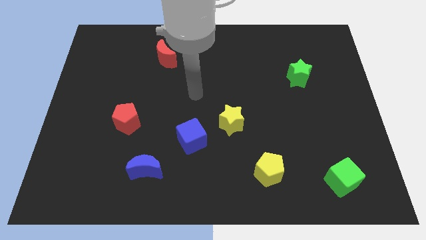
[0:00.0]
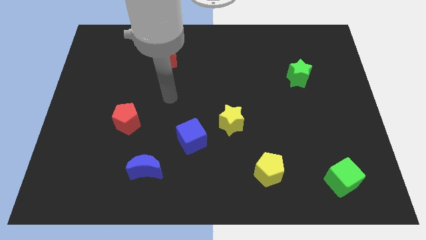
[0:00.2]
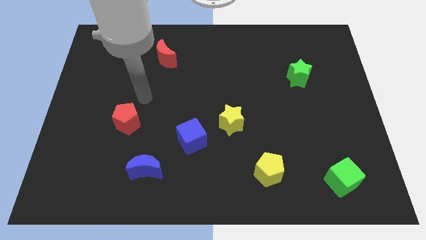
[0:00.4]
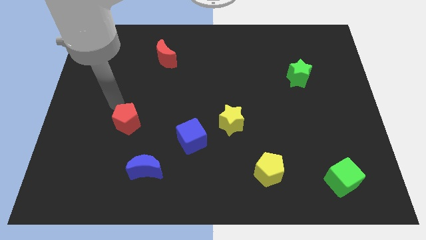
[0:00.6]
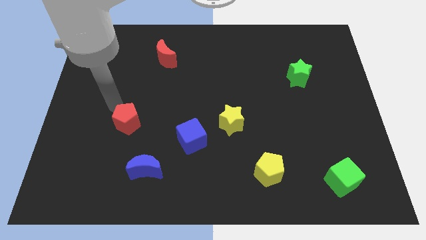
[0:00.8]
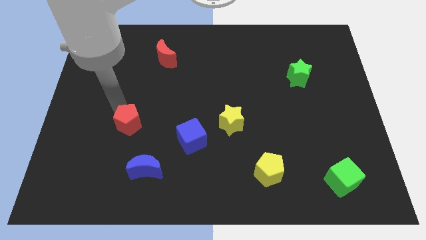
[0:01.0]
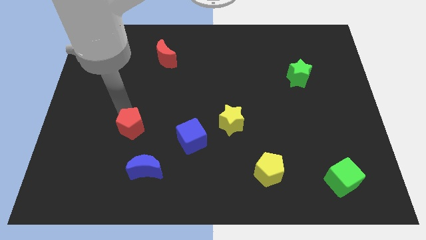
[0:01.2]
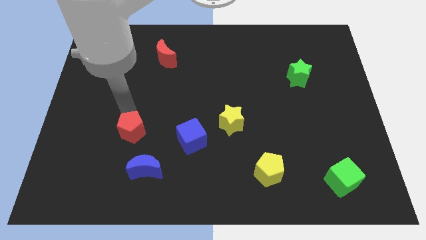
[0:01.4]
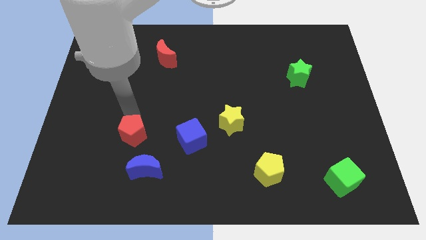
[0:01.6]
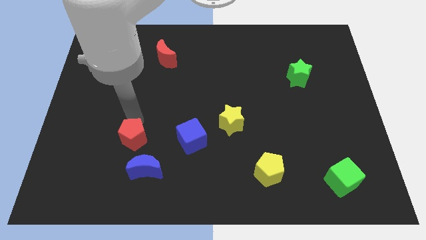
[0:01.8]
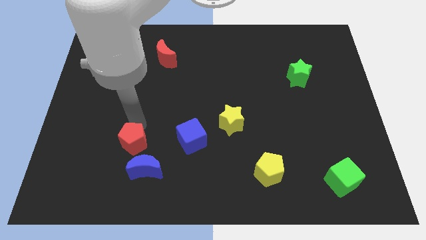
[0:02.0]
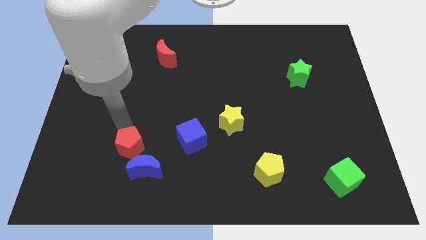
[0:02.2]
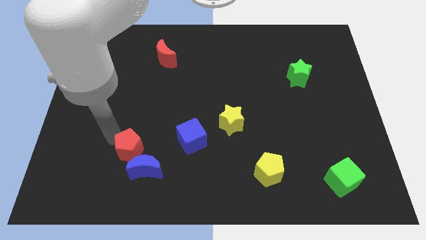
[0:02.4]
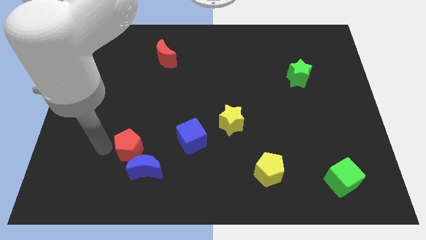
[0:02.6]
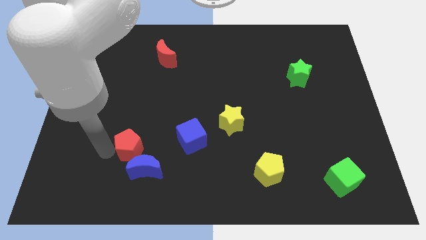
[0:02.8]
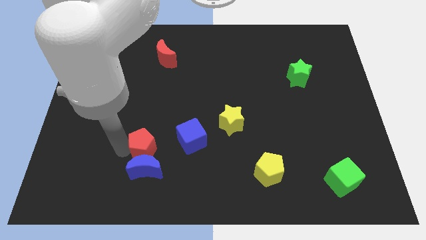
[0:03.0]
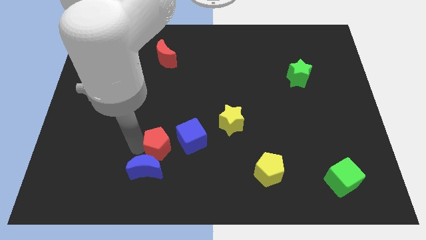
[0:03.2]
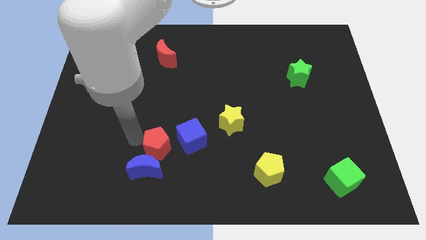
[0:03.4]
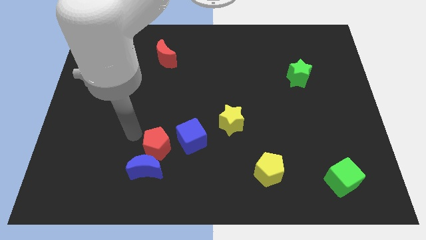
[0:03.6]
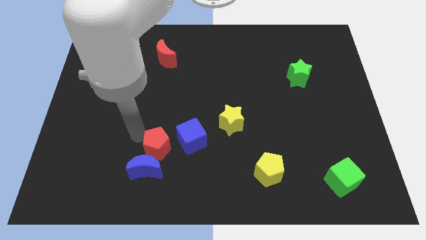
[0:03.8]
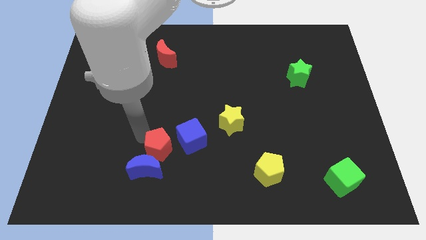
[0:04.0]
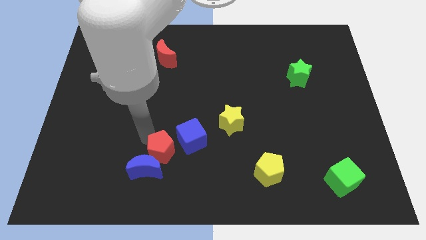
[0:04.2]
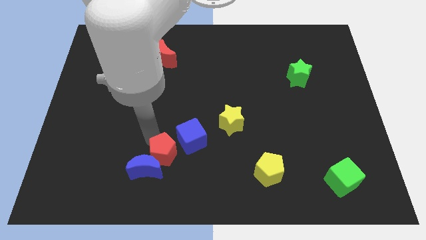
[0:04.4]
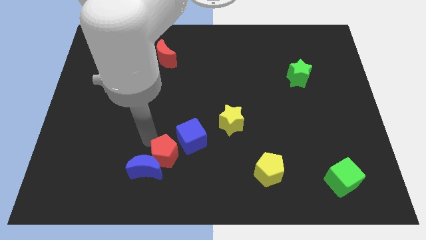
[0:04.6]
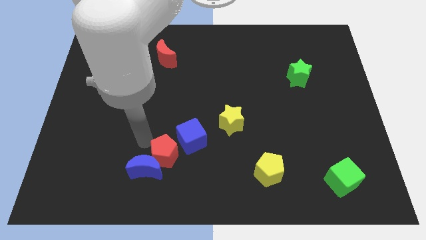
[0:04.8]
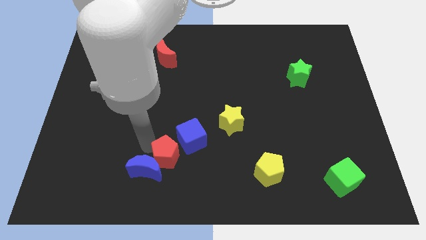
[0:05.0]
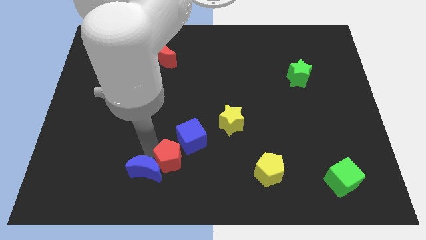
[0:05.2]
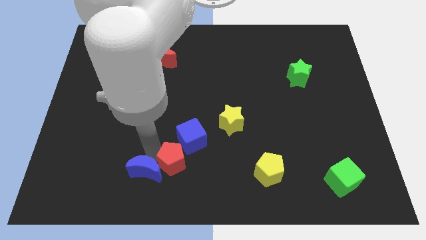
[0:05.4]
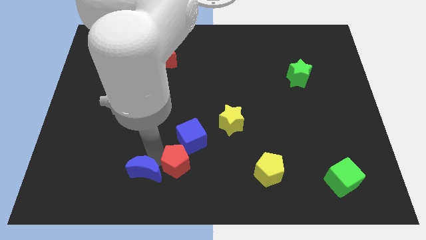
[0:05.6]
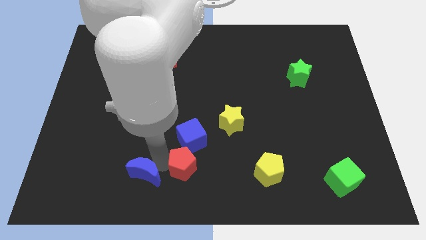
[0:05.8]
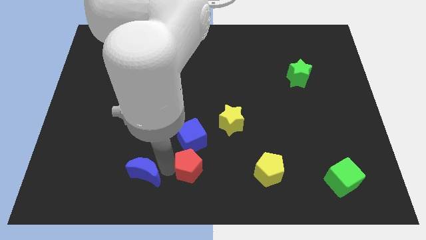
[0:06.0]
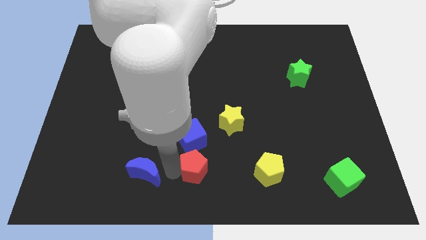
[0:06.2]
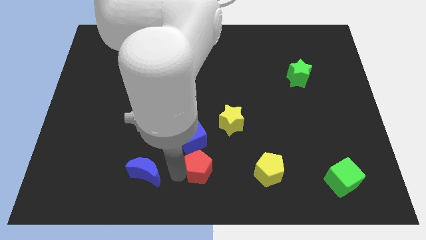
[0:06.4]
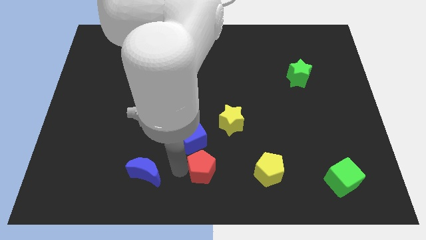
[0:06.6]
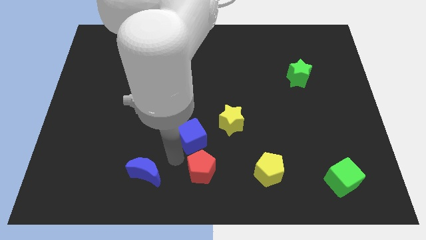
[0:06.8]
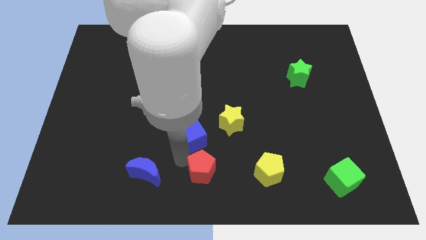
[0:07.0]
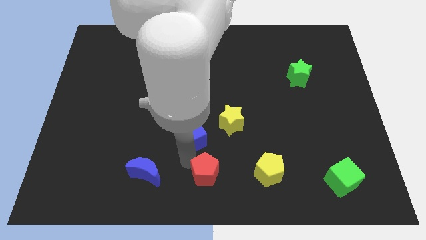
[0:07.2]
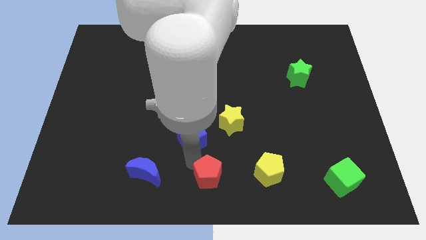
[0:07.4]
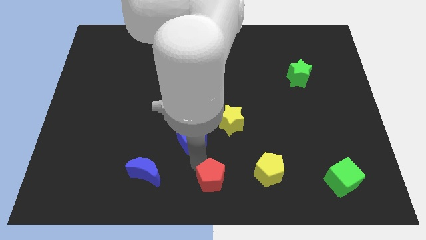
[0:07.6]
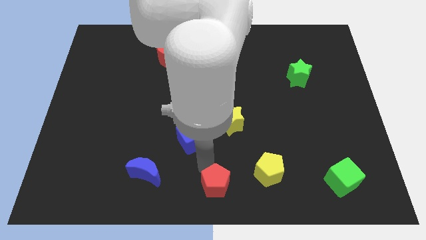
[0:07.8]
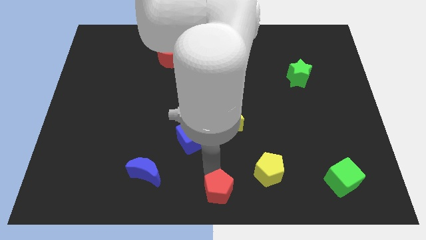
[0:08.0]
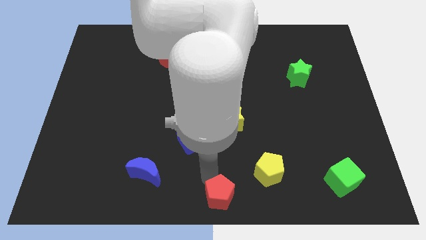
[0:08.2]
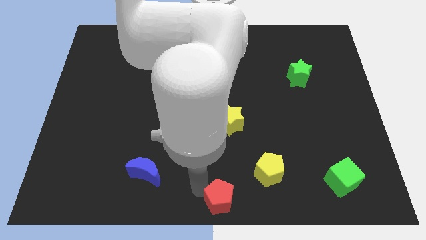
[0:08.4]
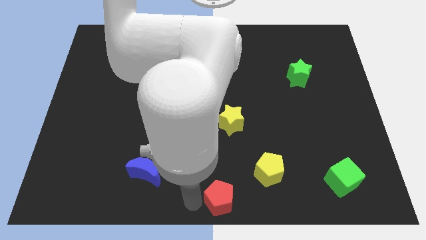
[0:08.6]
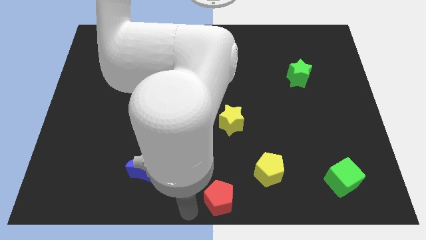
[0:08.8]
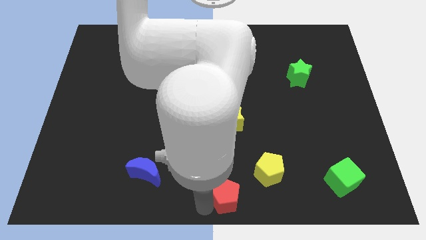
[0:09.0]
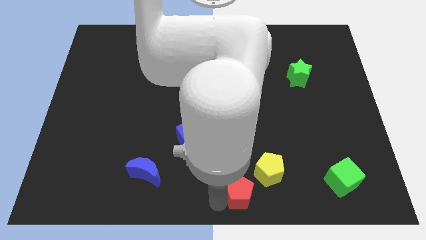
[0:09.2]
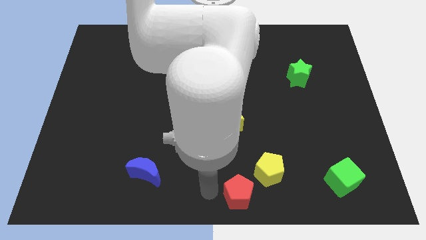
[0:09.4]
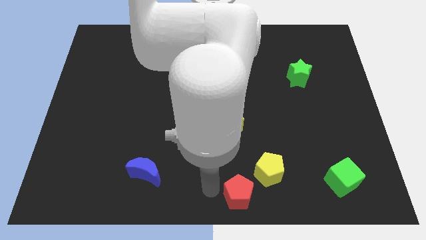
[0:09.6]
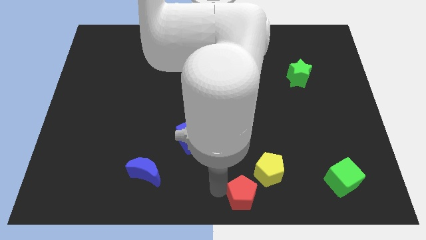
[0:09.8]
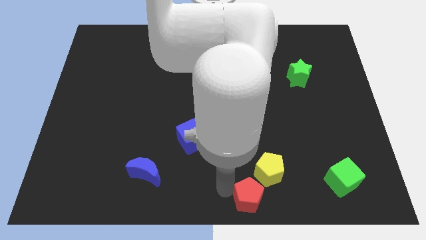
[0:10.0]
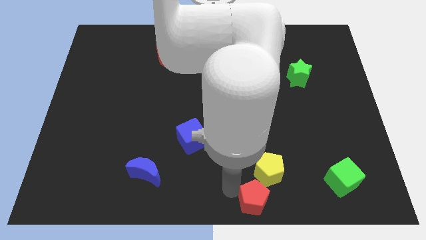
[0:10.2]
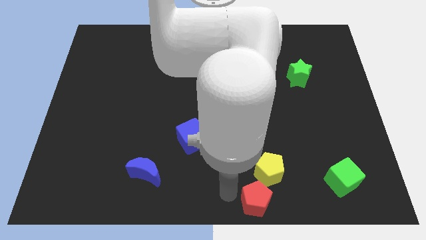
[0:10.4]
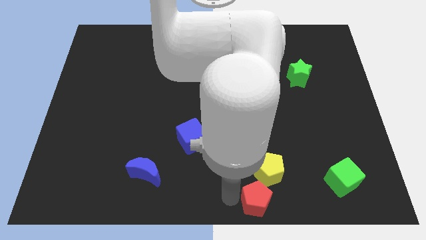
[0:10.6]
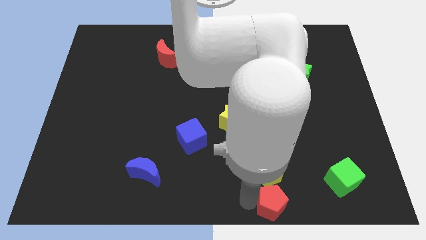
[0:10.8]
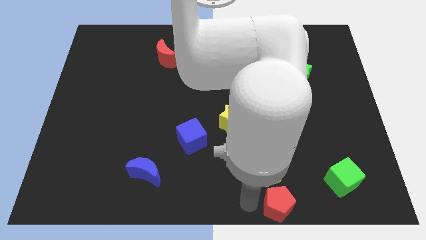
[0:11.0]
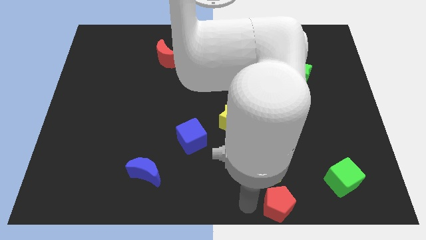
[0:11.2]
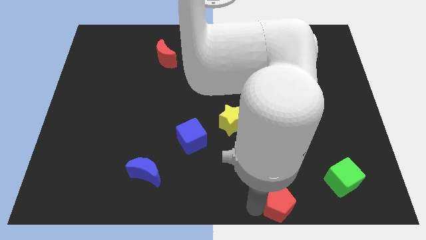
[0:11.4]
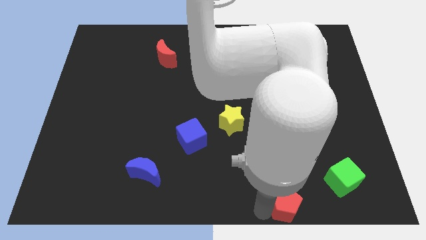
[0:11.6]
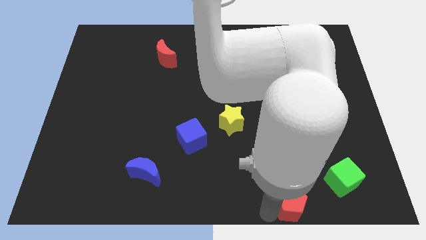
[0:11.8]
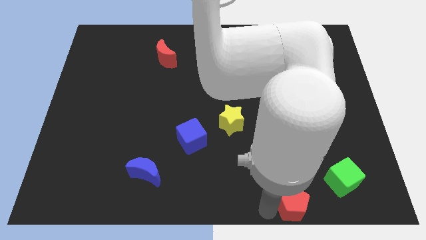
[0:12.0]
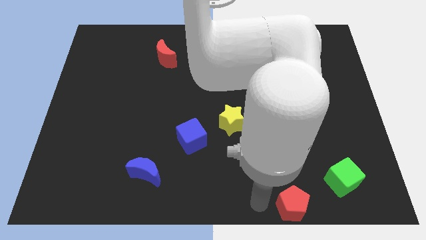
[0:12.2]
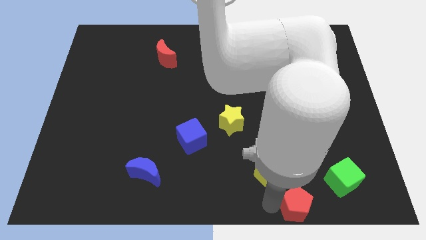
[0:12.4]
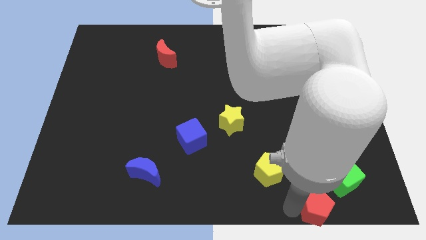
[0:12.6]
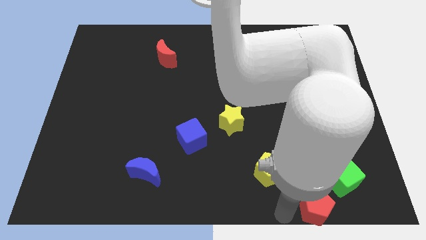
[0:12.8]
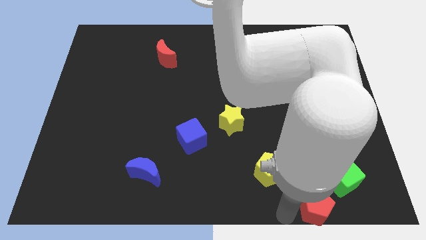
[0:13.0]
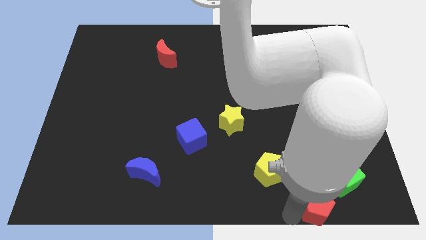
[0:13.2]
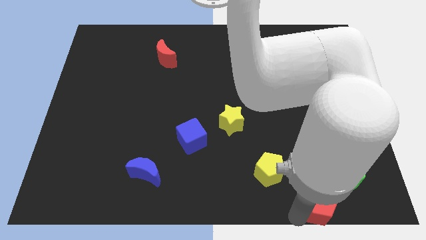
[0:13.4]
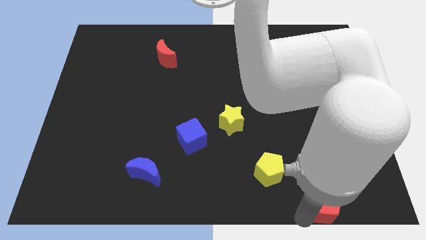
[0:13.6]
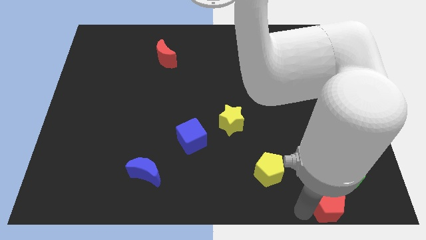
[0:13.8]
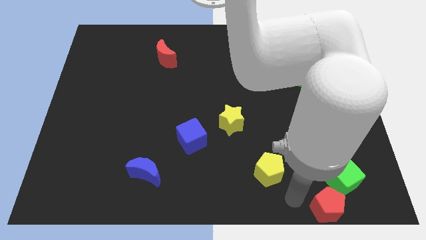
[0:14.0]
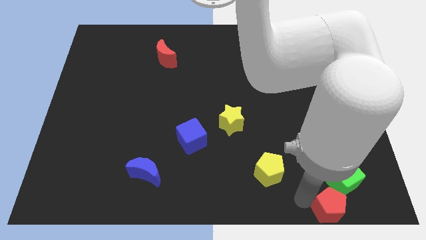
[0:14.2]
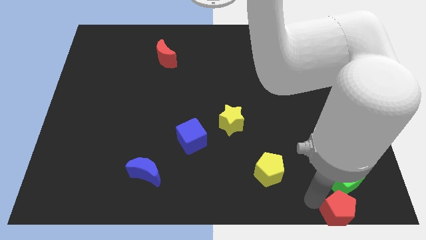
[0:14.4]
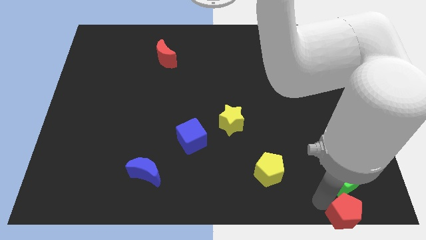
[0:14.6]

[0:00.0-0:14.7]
slide the red pentagon to the bottom right
